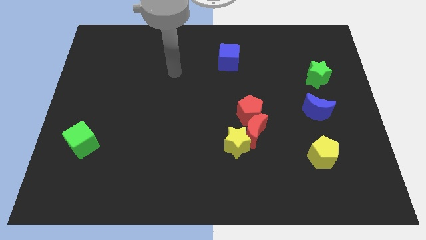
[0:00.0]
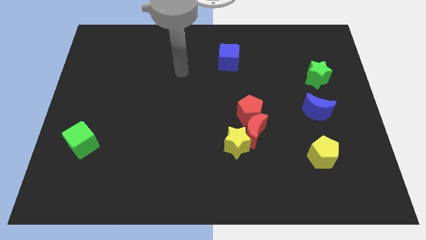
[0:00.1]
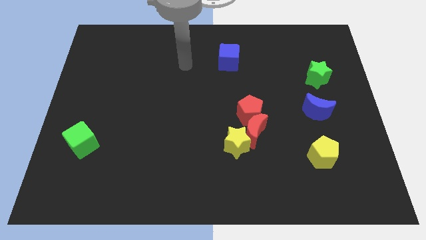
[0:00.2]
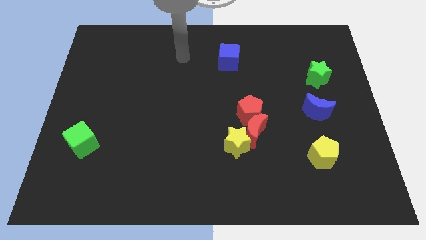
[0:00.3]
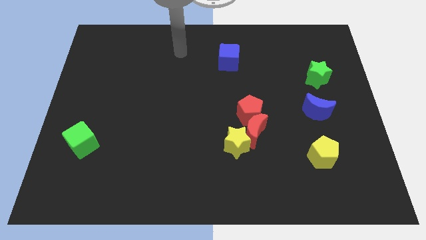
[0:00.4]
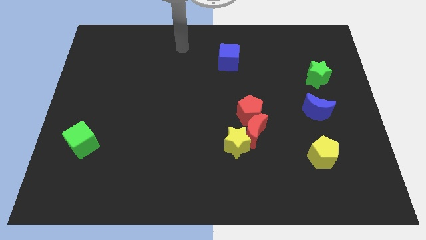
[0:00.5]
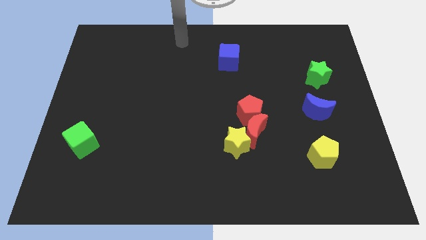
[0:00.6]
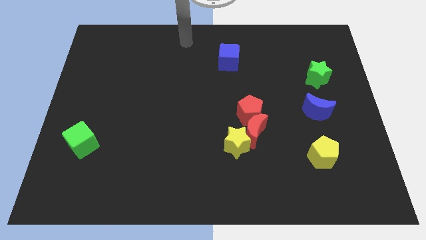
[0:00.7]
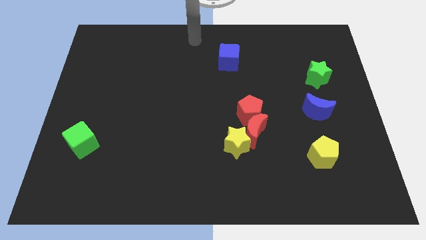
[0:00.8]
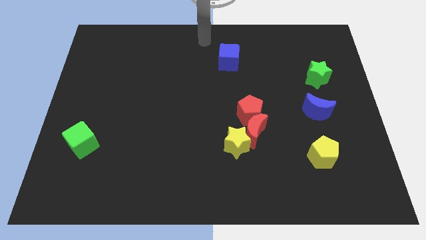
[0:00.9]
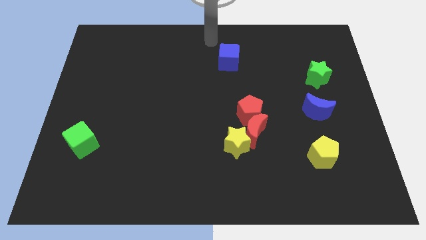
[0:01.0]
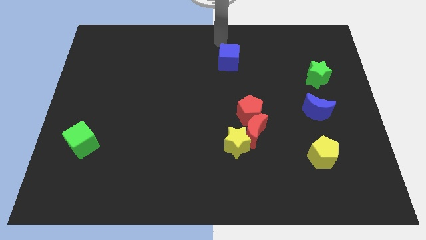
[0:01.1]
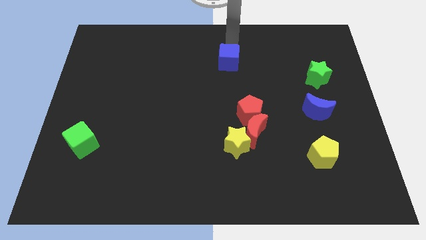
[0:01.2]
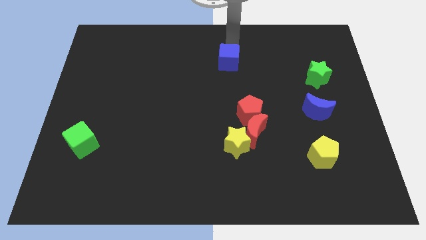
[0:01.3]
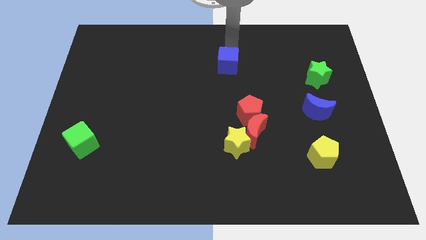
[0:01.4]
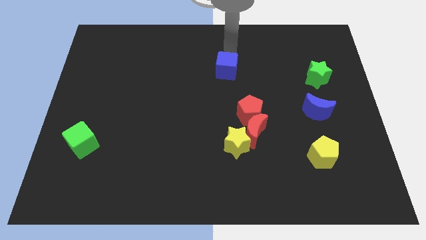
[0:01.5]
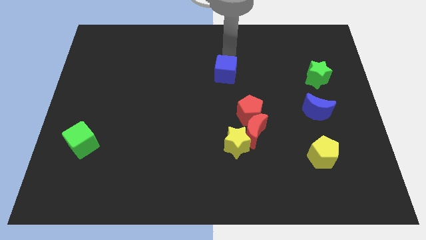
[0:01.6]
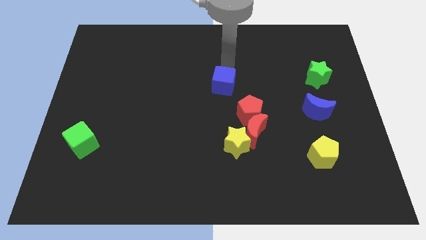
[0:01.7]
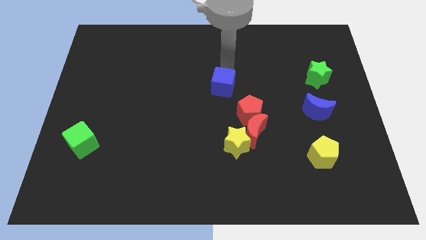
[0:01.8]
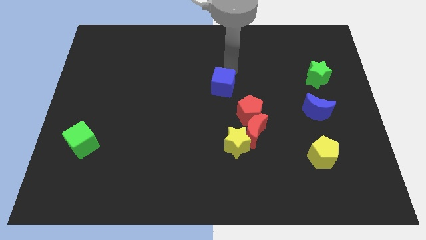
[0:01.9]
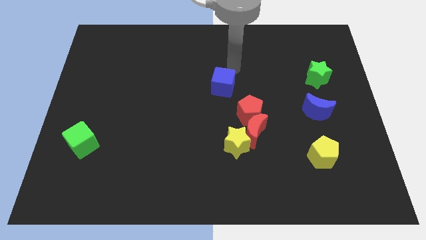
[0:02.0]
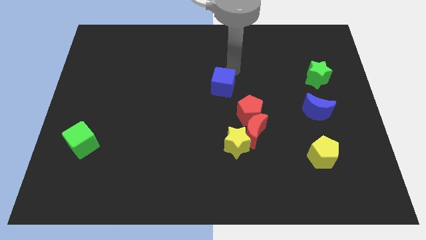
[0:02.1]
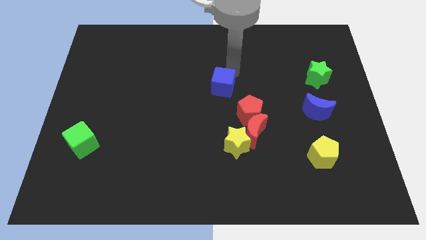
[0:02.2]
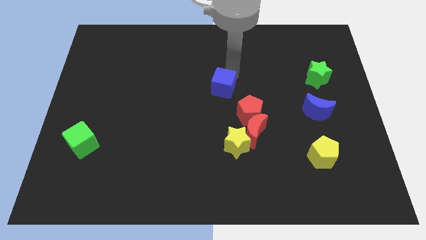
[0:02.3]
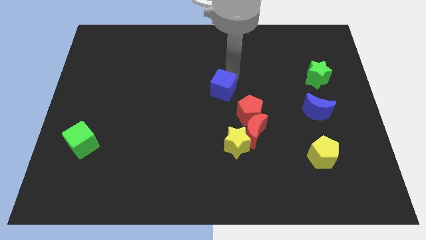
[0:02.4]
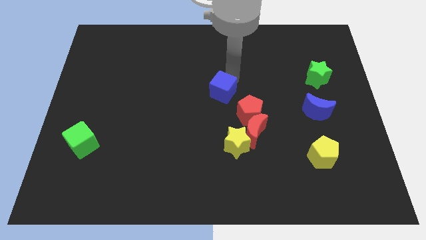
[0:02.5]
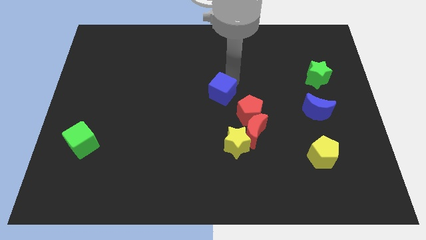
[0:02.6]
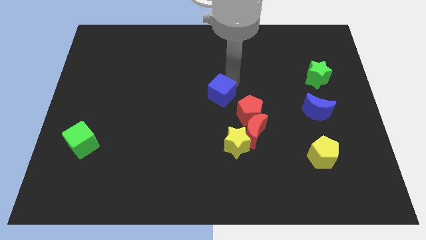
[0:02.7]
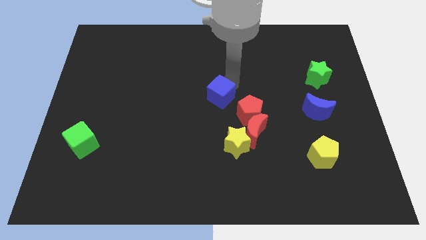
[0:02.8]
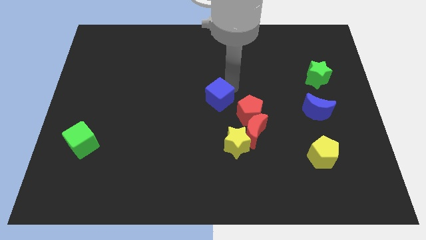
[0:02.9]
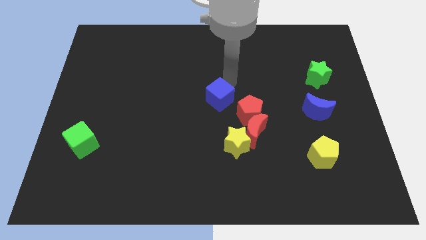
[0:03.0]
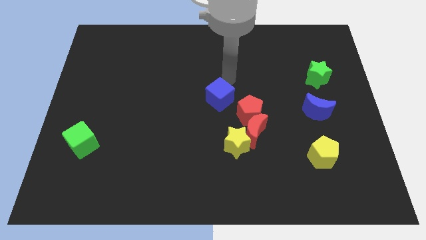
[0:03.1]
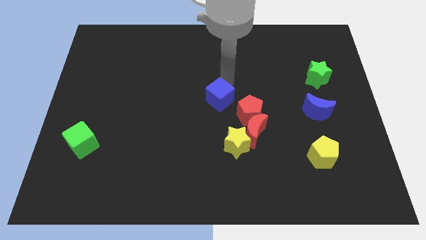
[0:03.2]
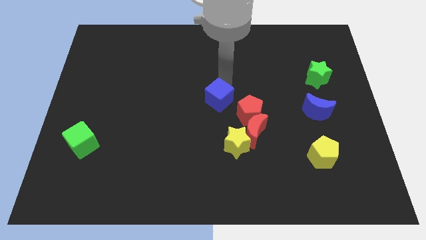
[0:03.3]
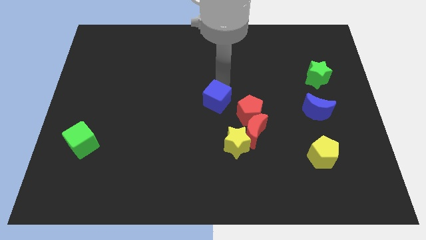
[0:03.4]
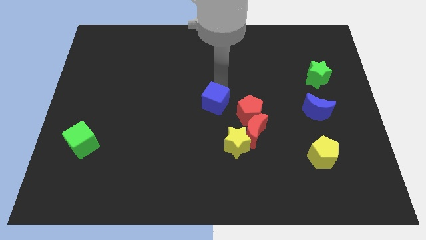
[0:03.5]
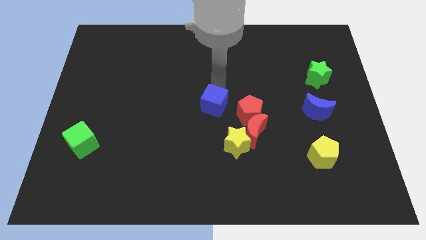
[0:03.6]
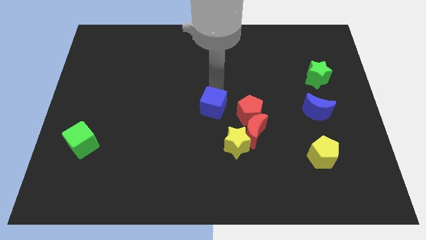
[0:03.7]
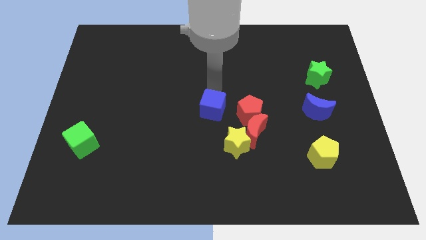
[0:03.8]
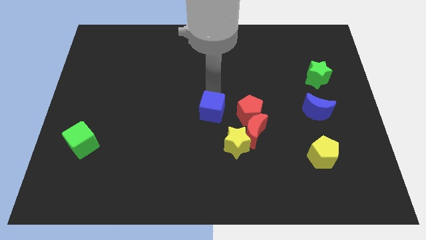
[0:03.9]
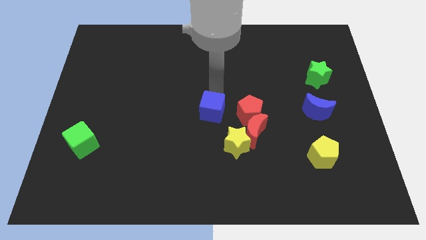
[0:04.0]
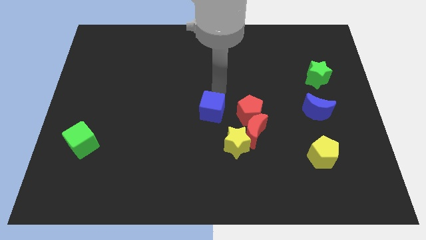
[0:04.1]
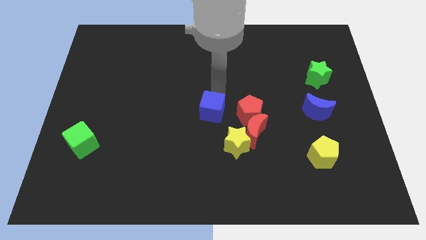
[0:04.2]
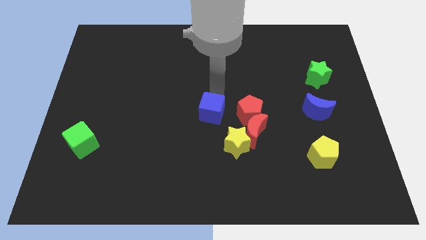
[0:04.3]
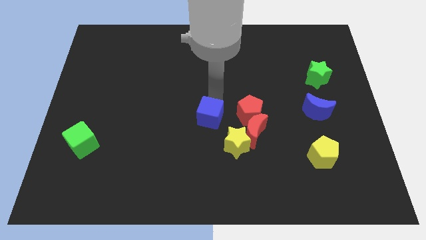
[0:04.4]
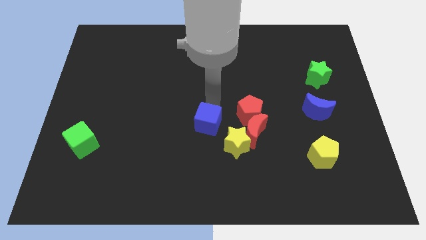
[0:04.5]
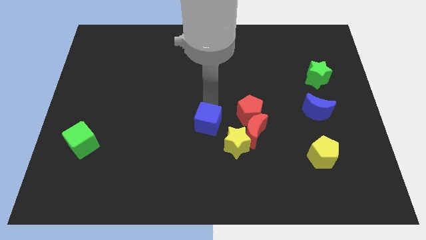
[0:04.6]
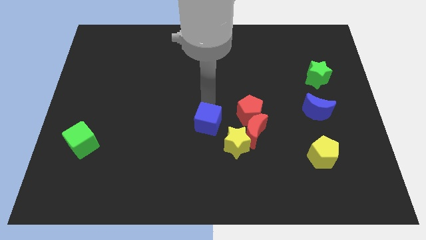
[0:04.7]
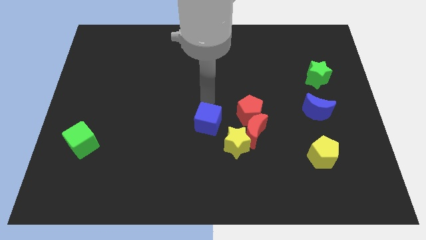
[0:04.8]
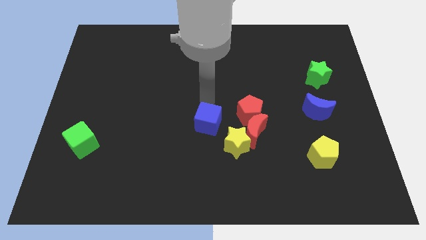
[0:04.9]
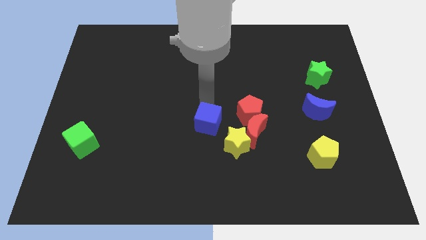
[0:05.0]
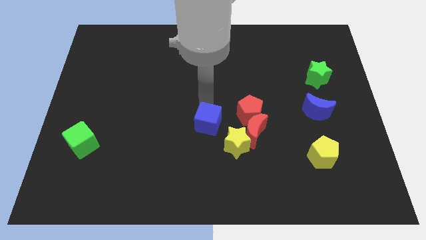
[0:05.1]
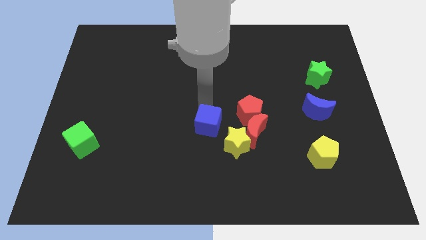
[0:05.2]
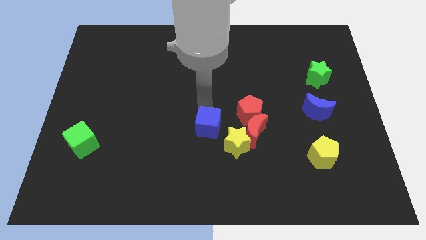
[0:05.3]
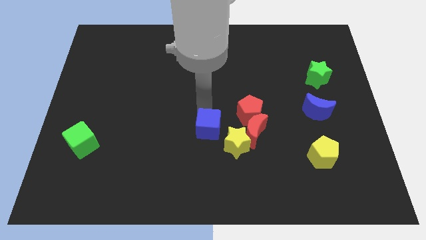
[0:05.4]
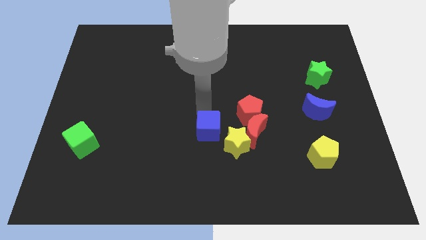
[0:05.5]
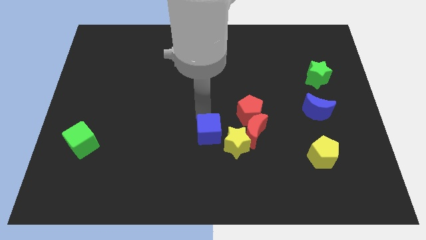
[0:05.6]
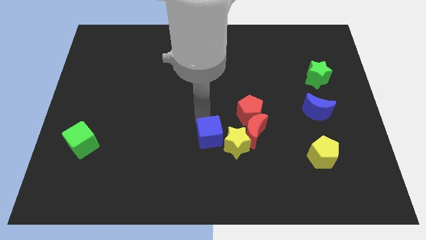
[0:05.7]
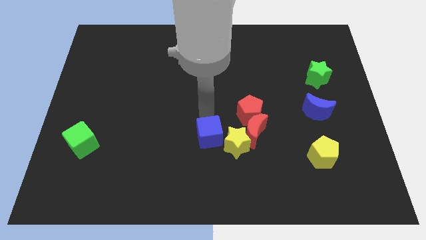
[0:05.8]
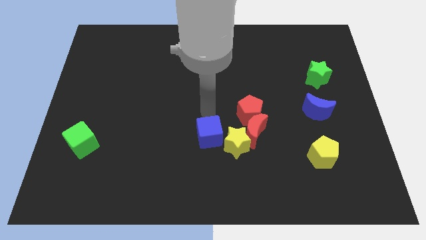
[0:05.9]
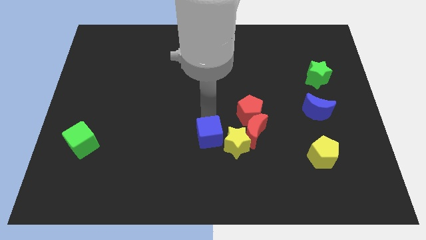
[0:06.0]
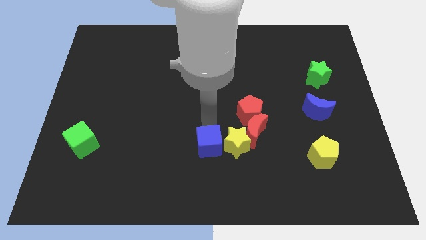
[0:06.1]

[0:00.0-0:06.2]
slide the blue cube to the bottom left side of the yellow star
